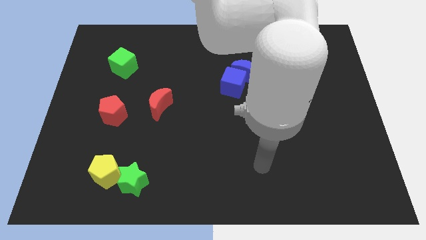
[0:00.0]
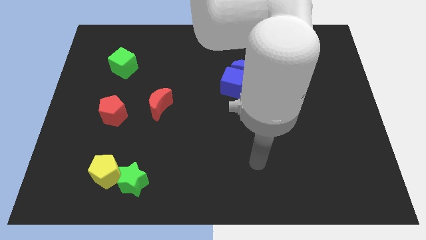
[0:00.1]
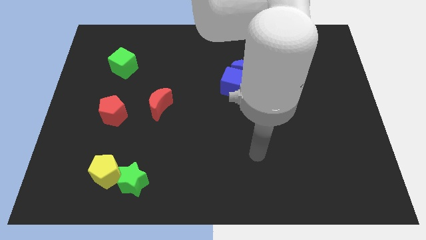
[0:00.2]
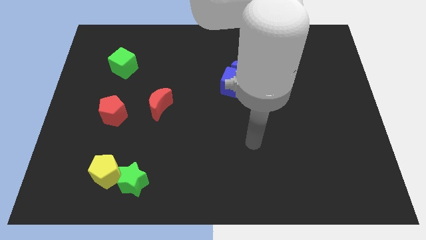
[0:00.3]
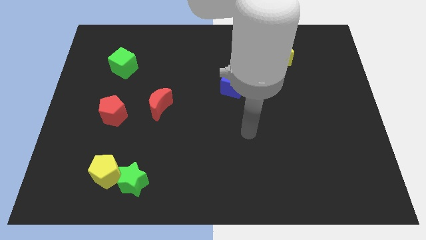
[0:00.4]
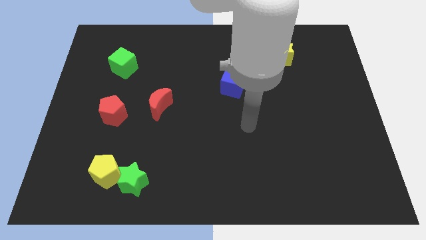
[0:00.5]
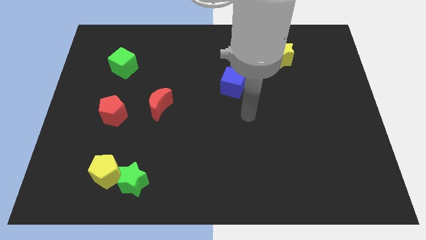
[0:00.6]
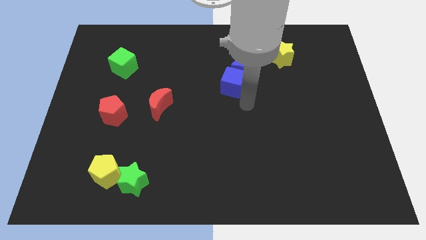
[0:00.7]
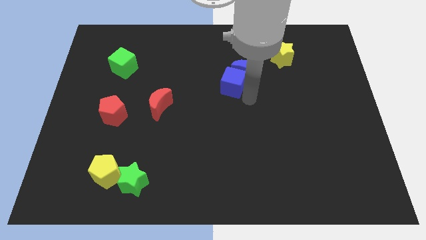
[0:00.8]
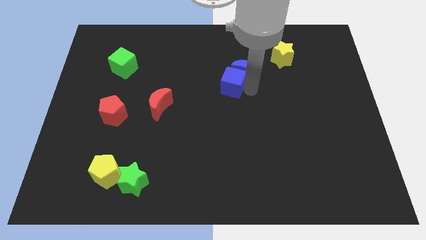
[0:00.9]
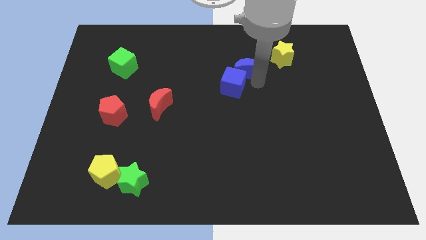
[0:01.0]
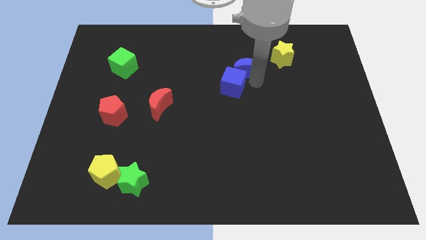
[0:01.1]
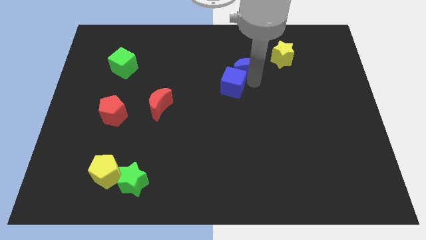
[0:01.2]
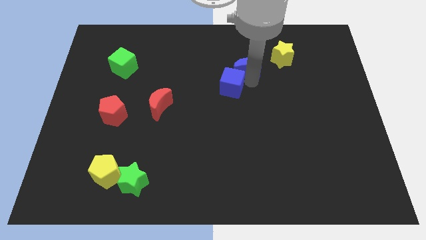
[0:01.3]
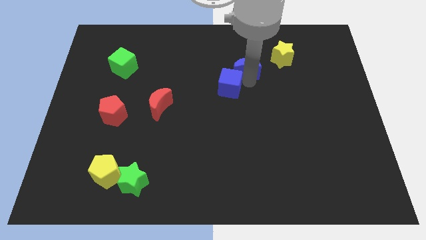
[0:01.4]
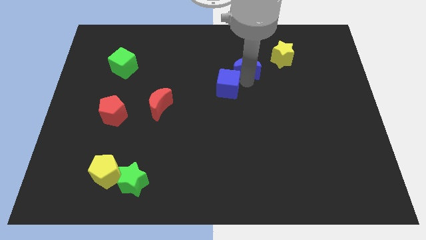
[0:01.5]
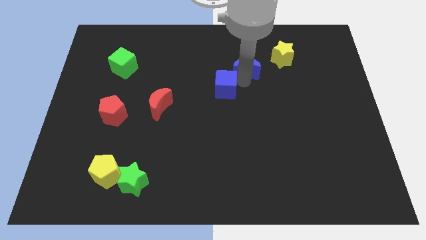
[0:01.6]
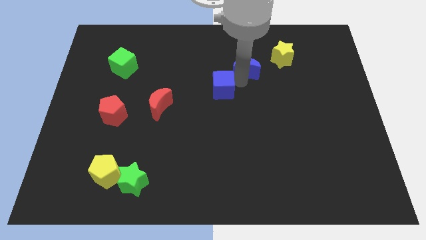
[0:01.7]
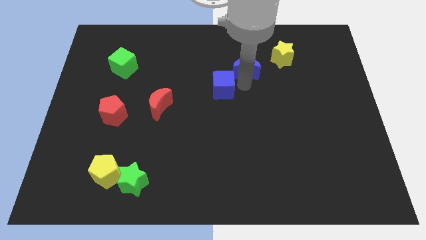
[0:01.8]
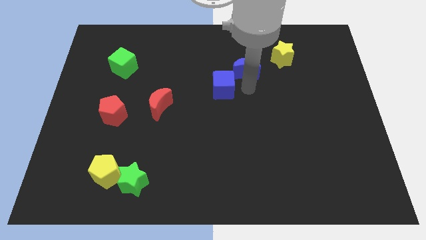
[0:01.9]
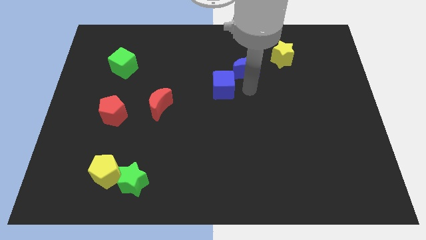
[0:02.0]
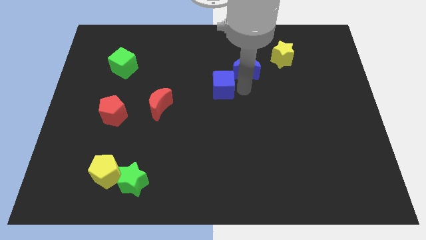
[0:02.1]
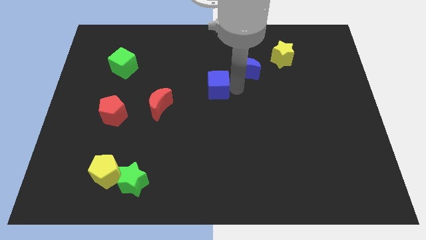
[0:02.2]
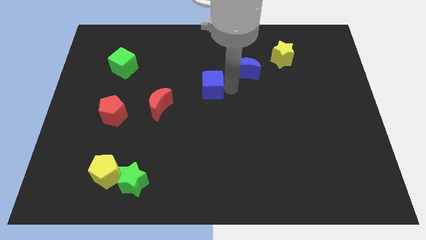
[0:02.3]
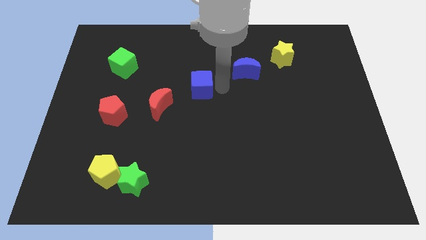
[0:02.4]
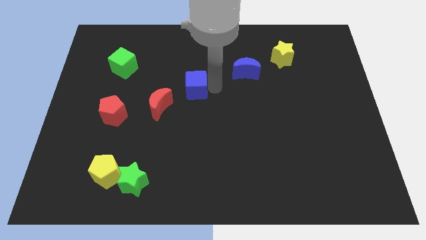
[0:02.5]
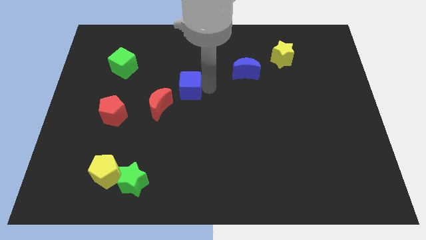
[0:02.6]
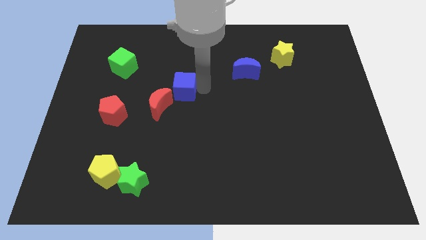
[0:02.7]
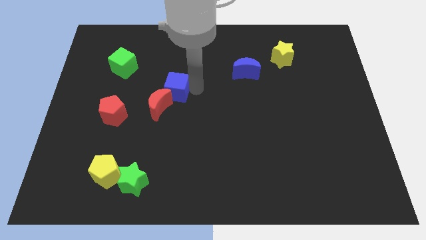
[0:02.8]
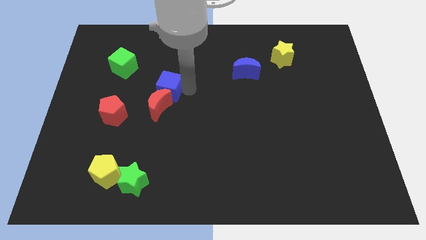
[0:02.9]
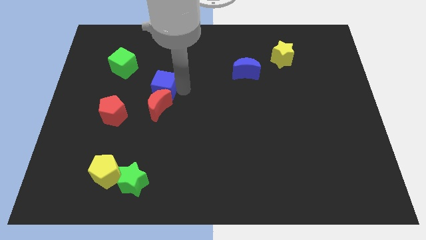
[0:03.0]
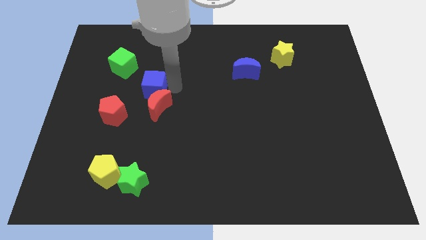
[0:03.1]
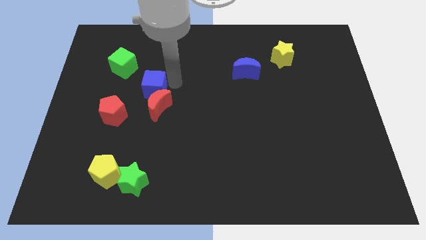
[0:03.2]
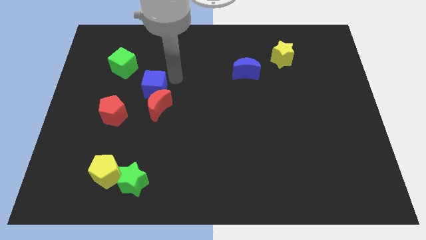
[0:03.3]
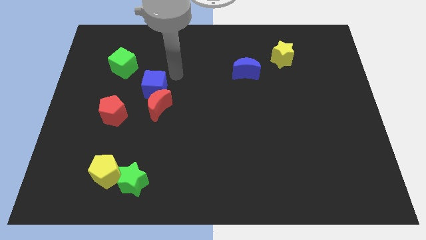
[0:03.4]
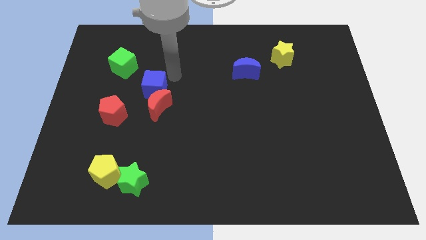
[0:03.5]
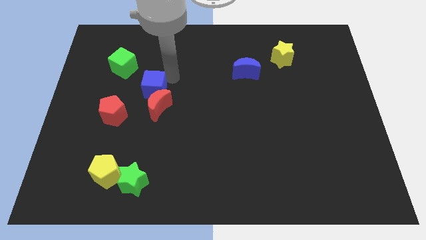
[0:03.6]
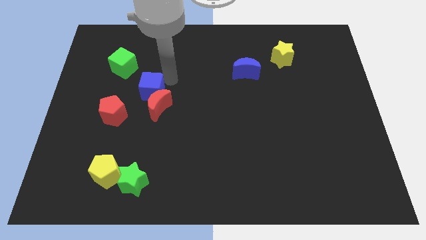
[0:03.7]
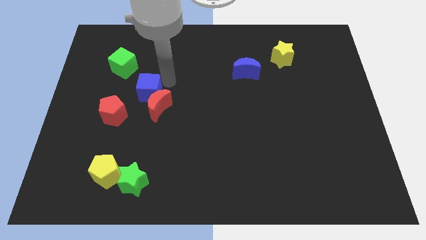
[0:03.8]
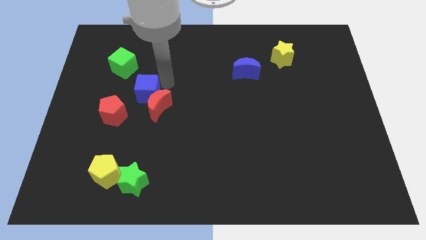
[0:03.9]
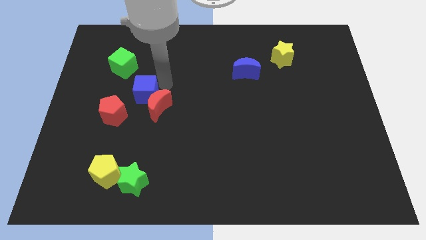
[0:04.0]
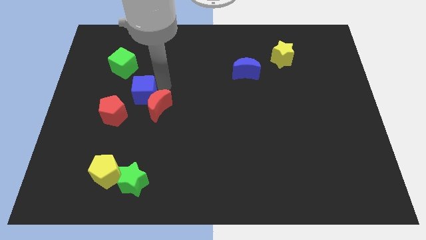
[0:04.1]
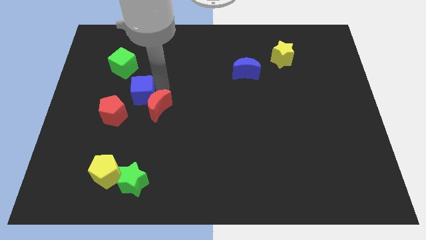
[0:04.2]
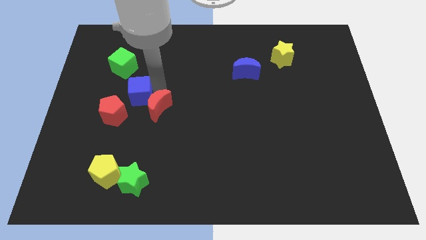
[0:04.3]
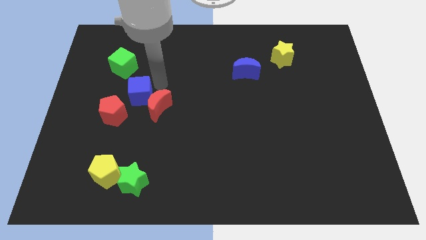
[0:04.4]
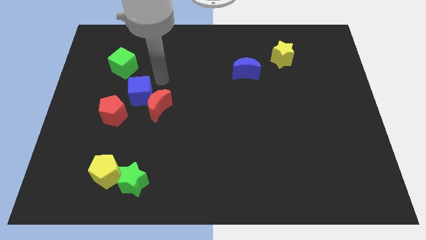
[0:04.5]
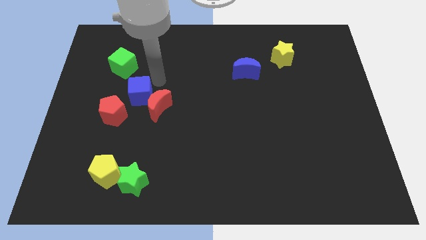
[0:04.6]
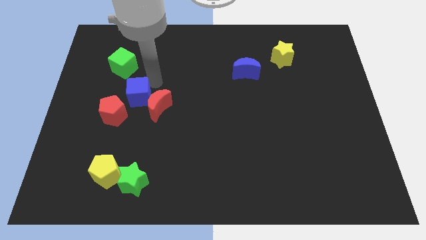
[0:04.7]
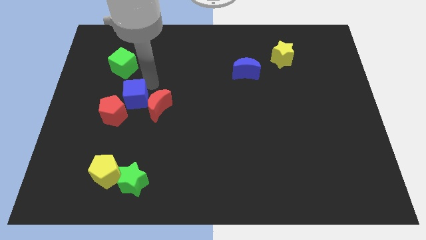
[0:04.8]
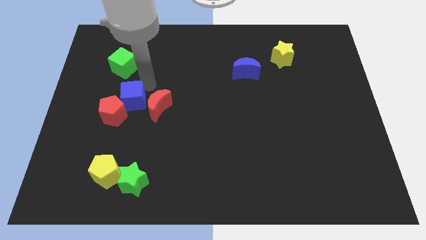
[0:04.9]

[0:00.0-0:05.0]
move the blue cube to the red pentagon

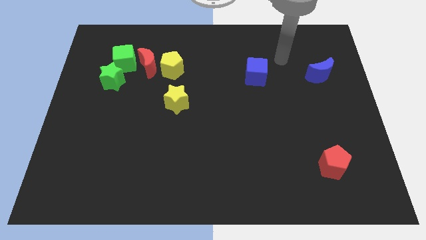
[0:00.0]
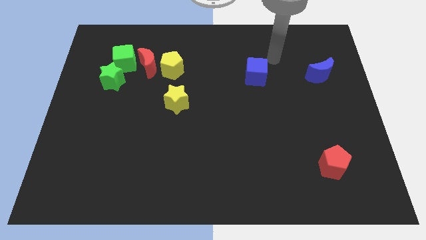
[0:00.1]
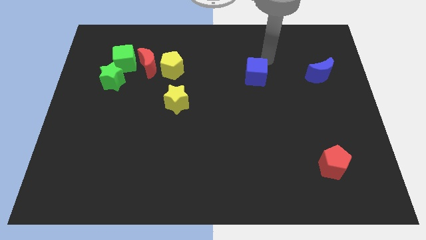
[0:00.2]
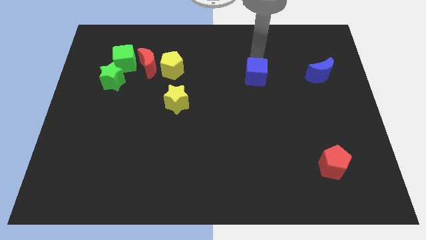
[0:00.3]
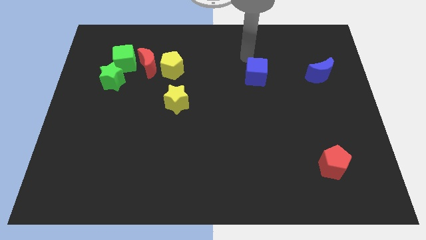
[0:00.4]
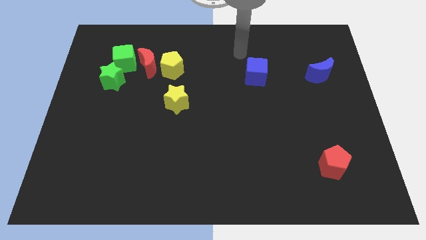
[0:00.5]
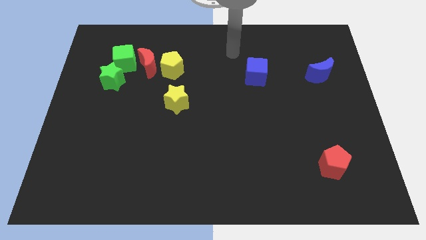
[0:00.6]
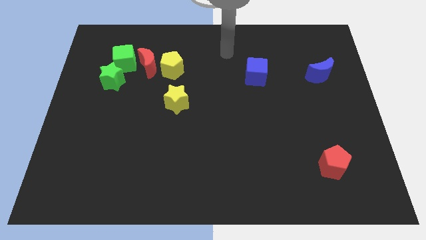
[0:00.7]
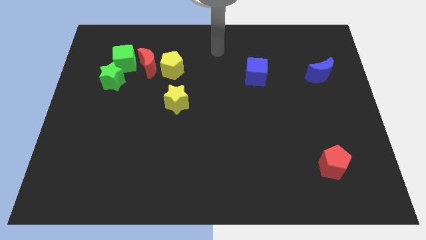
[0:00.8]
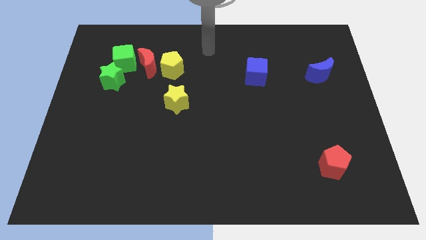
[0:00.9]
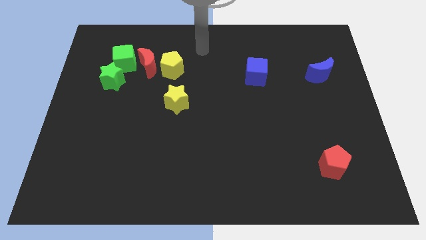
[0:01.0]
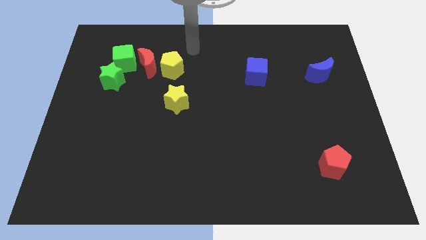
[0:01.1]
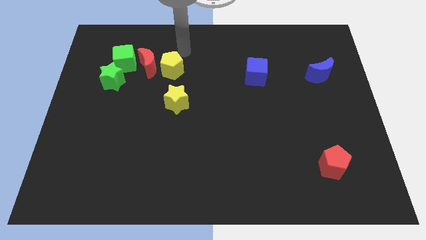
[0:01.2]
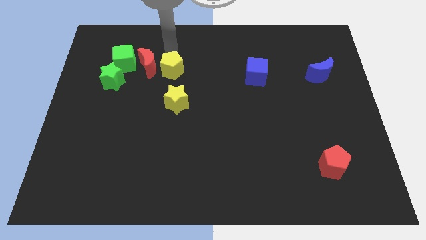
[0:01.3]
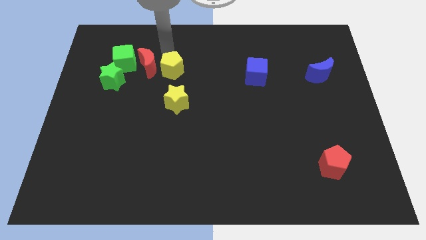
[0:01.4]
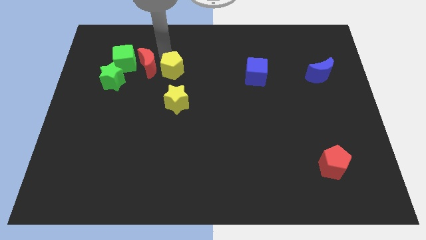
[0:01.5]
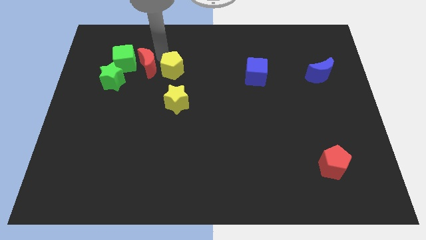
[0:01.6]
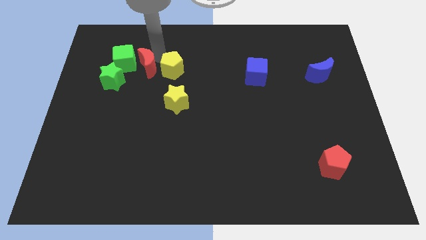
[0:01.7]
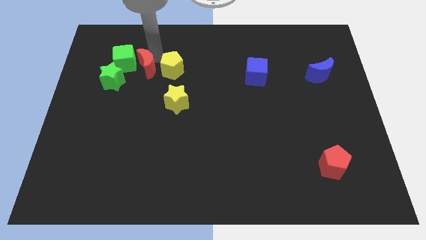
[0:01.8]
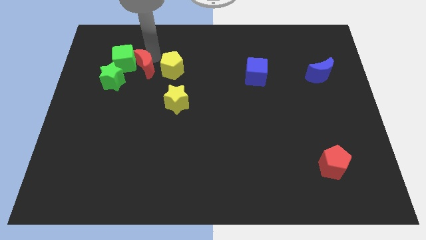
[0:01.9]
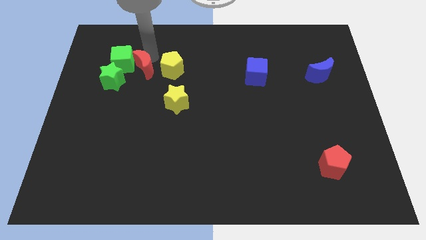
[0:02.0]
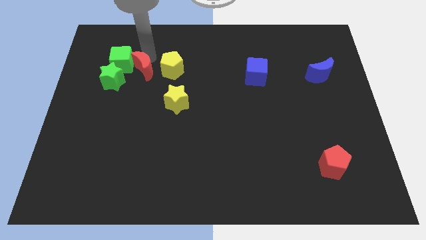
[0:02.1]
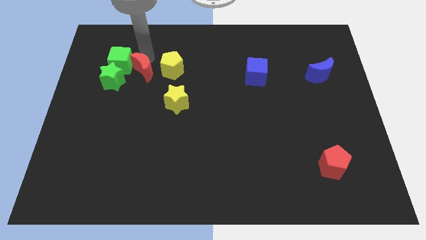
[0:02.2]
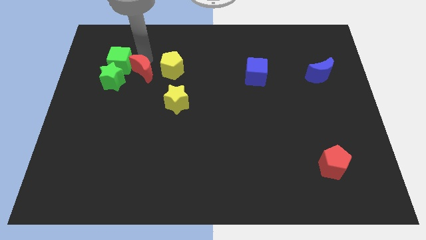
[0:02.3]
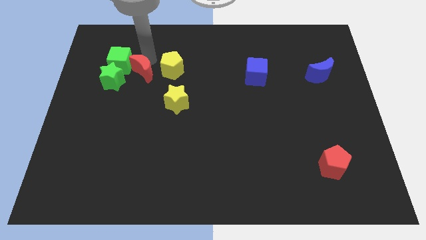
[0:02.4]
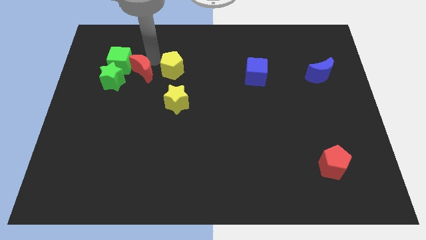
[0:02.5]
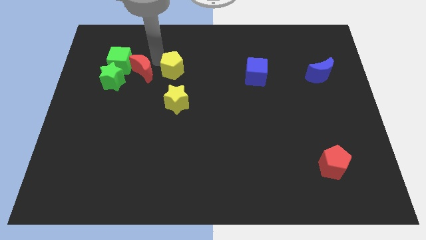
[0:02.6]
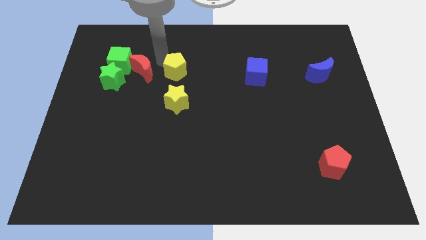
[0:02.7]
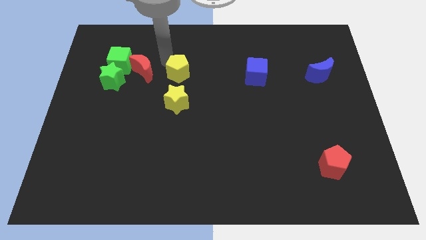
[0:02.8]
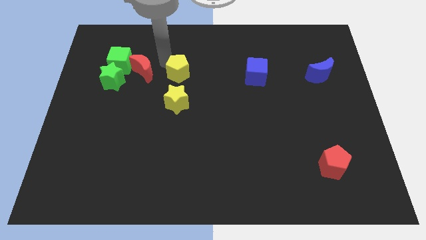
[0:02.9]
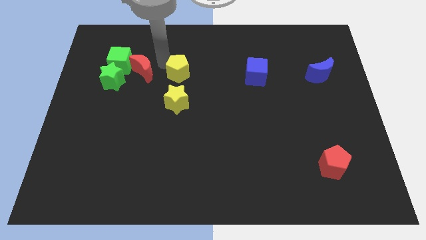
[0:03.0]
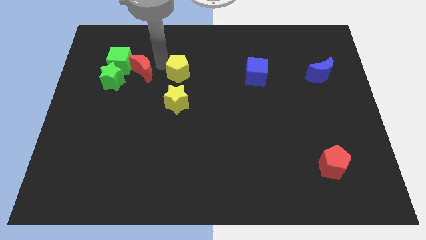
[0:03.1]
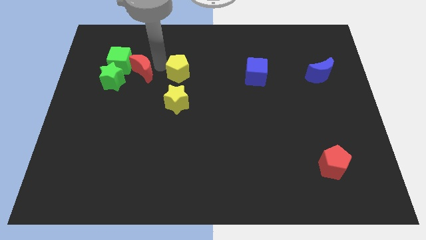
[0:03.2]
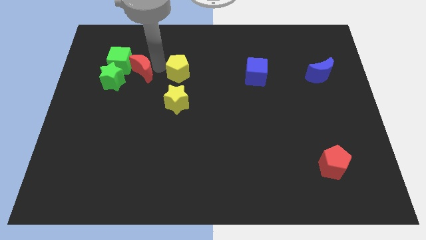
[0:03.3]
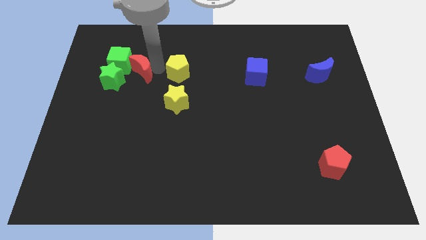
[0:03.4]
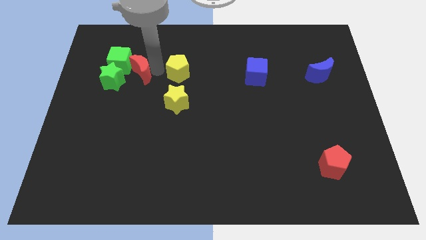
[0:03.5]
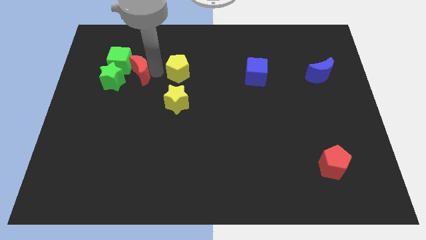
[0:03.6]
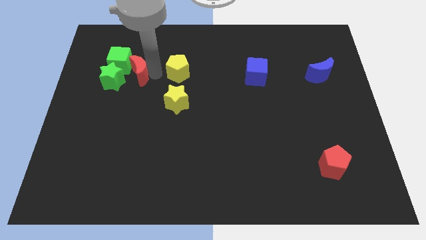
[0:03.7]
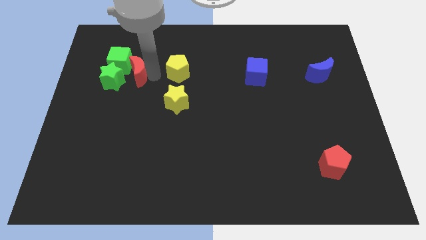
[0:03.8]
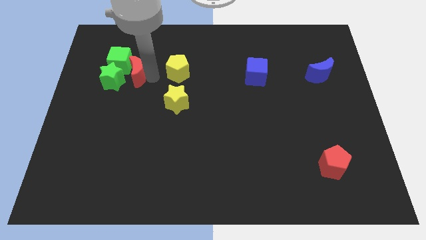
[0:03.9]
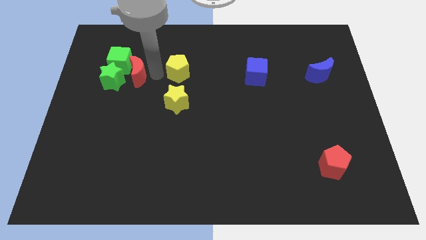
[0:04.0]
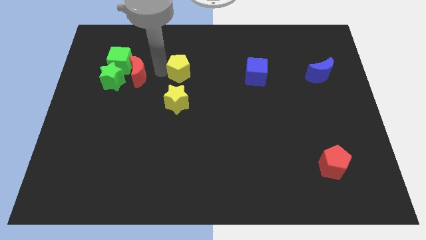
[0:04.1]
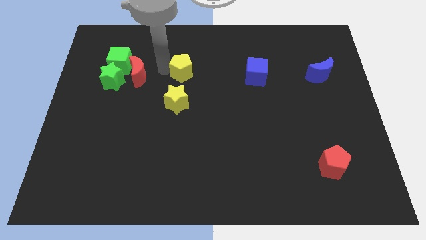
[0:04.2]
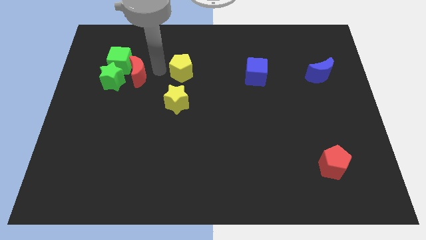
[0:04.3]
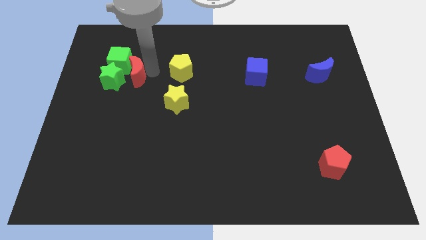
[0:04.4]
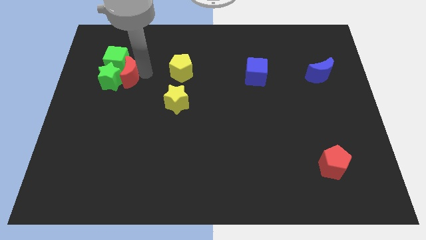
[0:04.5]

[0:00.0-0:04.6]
put the red moon towards the green star
